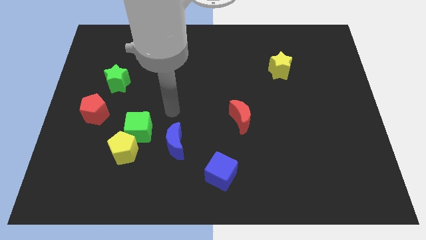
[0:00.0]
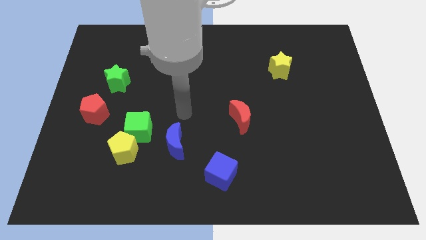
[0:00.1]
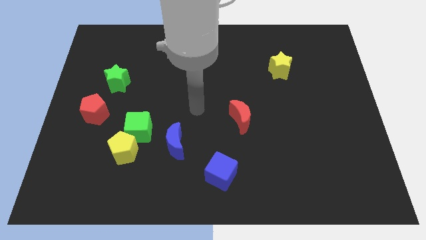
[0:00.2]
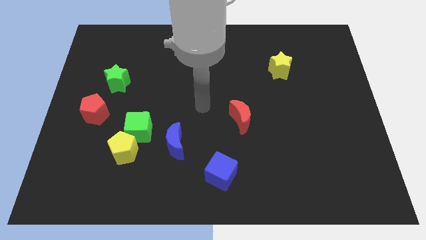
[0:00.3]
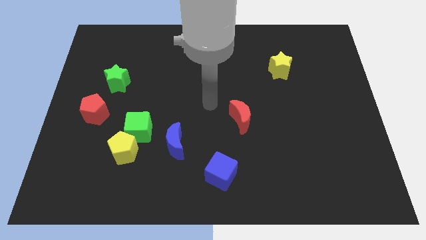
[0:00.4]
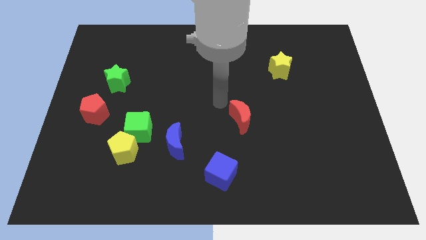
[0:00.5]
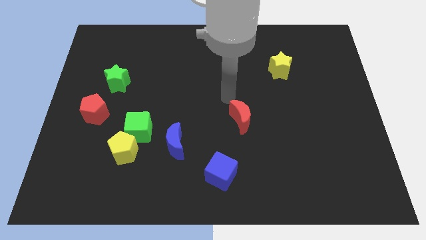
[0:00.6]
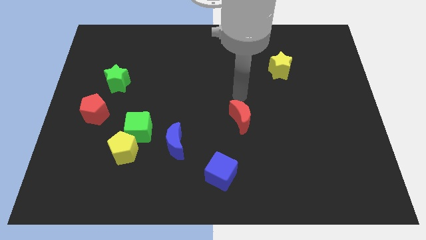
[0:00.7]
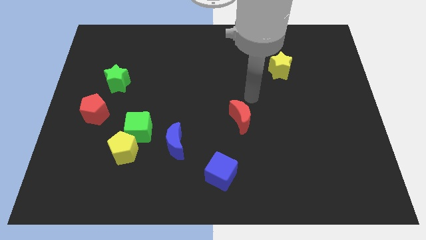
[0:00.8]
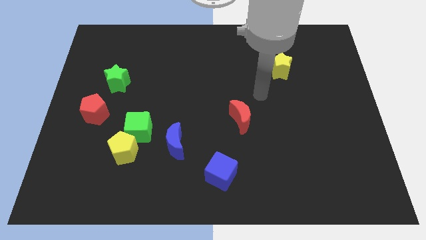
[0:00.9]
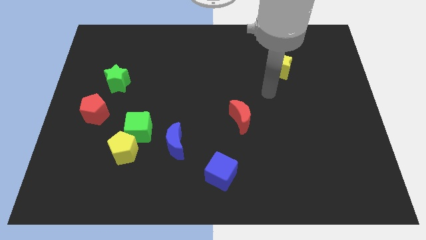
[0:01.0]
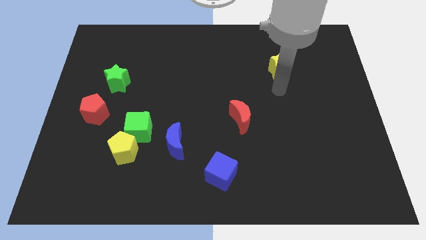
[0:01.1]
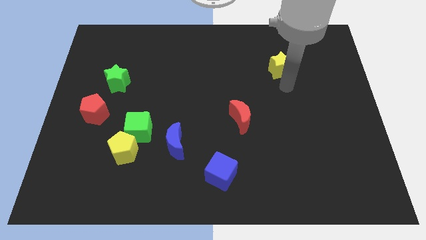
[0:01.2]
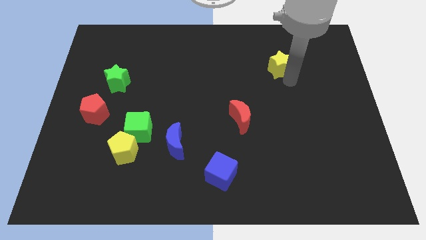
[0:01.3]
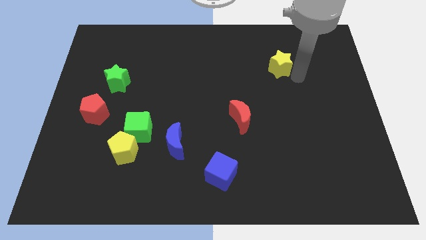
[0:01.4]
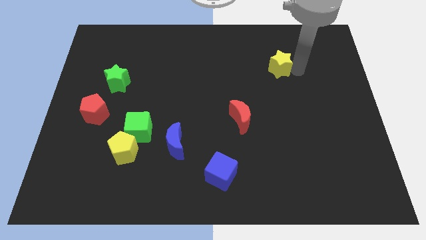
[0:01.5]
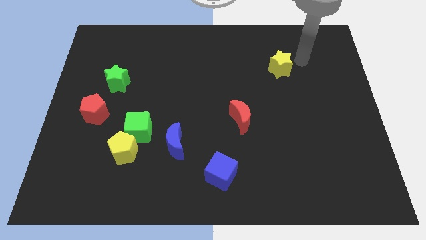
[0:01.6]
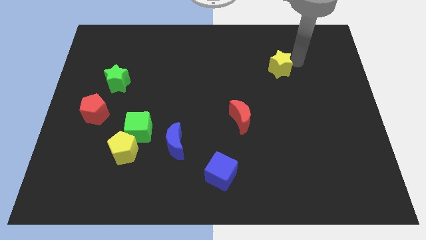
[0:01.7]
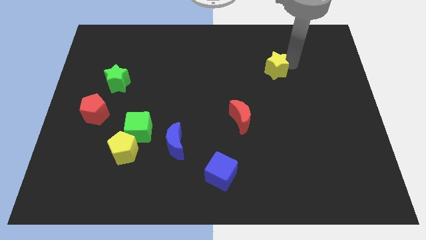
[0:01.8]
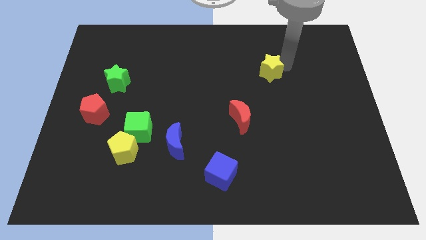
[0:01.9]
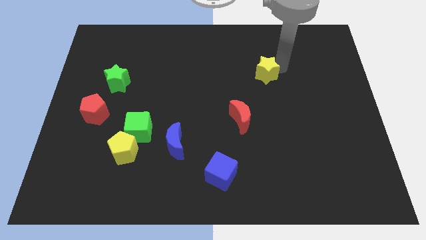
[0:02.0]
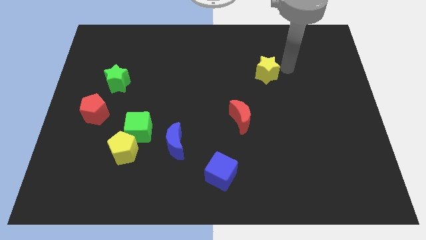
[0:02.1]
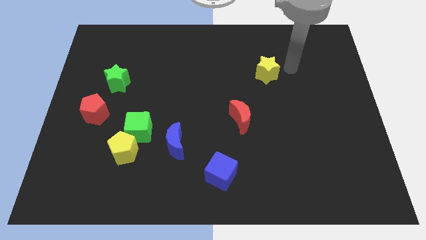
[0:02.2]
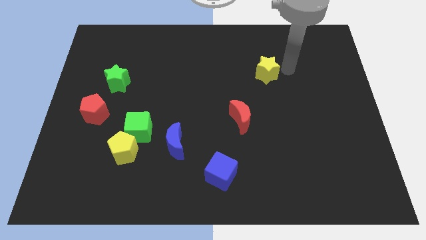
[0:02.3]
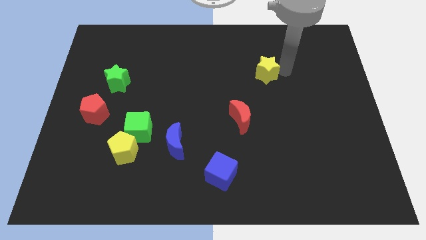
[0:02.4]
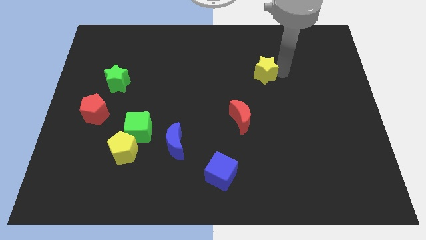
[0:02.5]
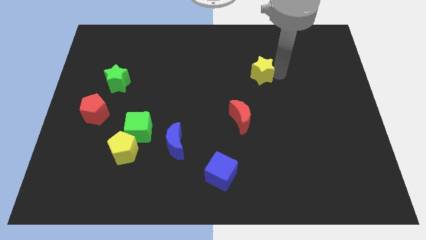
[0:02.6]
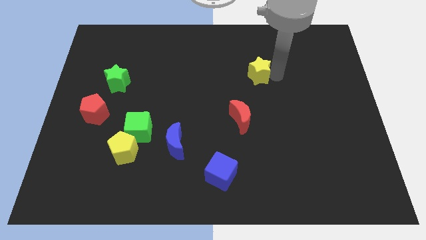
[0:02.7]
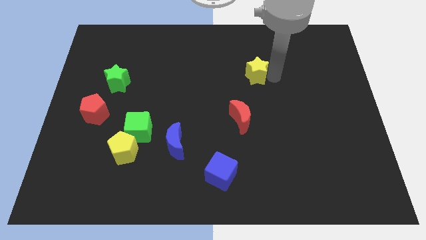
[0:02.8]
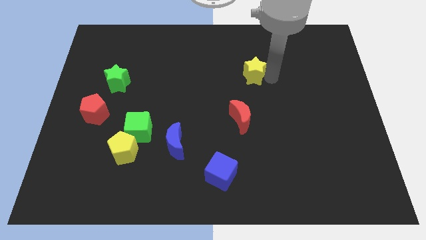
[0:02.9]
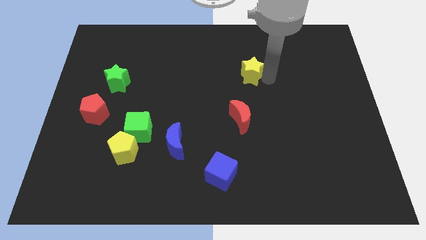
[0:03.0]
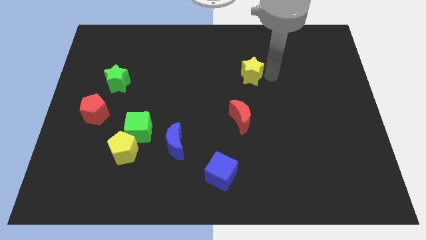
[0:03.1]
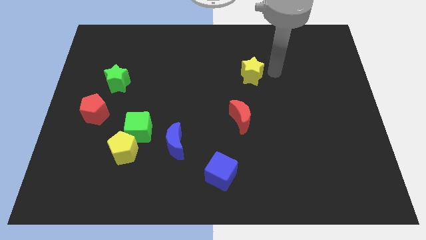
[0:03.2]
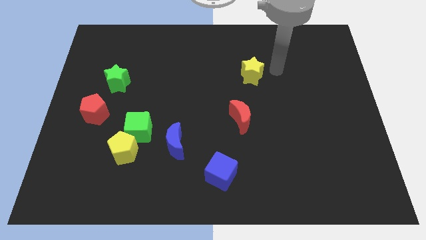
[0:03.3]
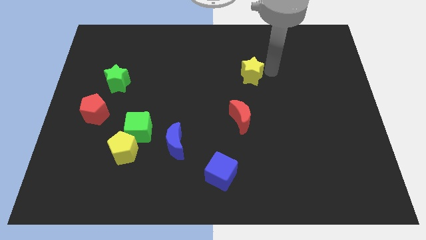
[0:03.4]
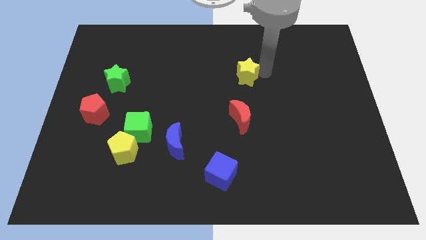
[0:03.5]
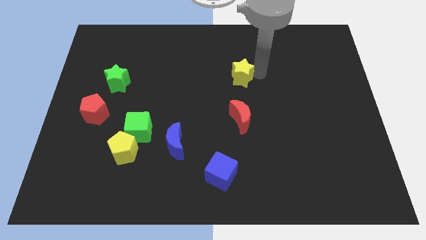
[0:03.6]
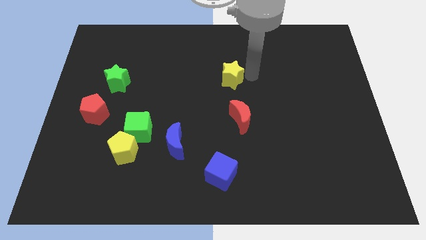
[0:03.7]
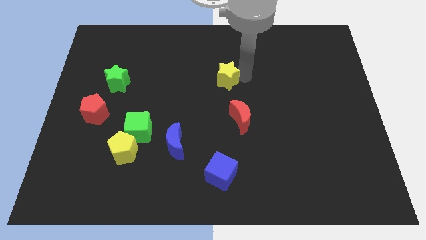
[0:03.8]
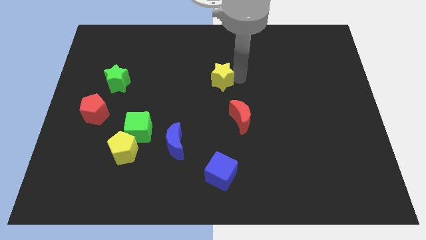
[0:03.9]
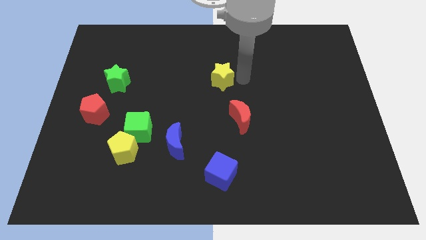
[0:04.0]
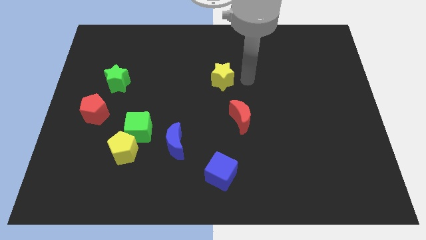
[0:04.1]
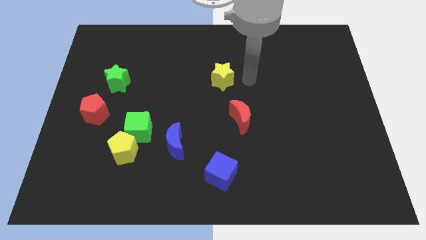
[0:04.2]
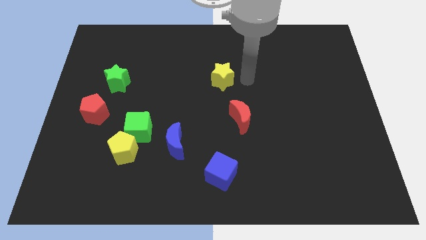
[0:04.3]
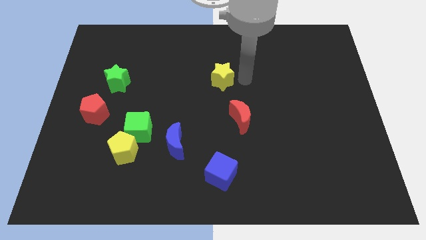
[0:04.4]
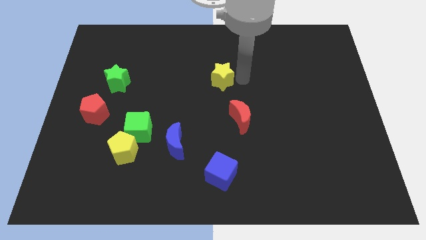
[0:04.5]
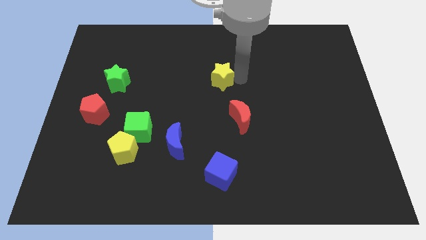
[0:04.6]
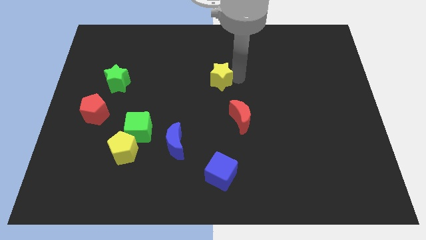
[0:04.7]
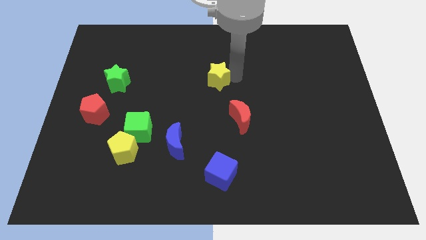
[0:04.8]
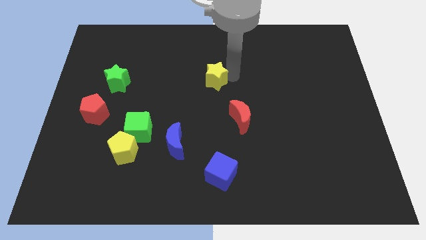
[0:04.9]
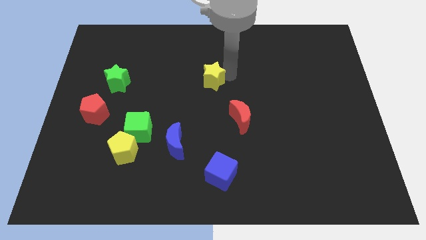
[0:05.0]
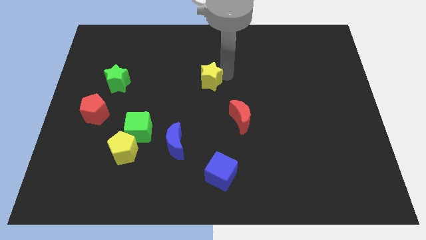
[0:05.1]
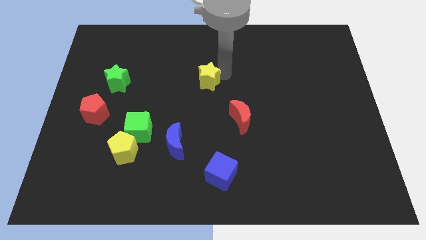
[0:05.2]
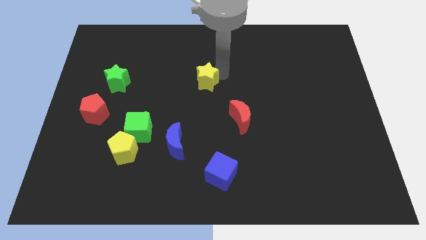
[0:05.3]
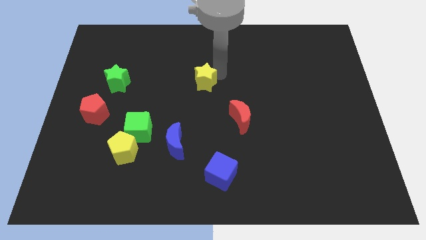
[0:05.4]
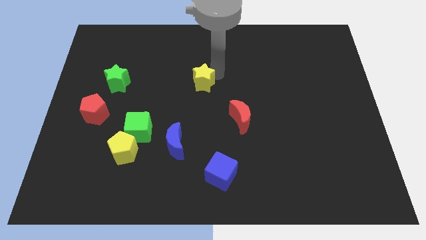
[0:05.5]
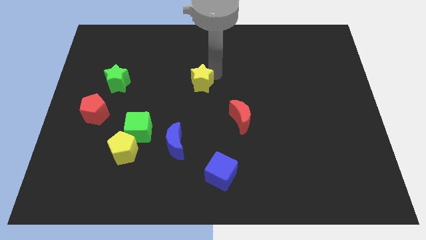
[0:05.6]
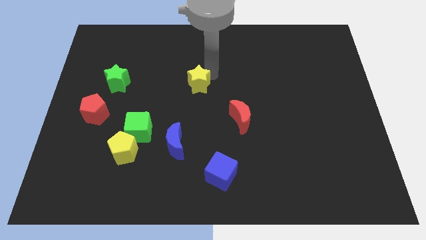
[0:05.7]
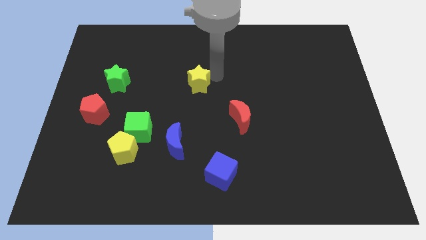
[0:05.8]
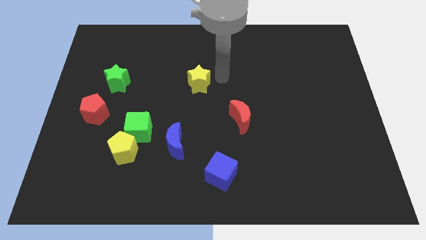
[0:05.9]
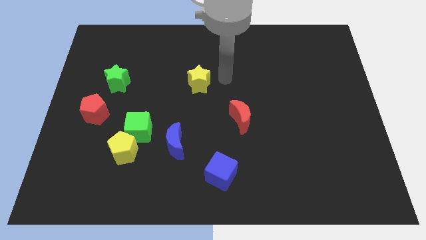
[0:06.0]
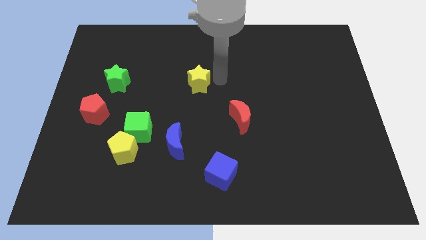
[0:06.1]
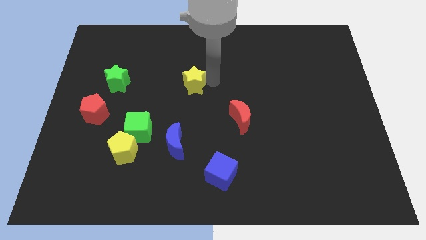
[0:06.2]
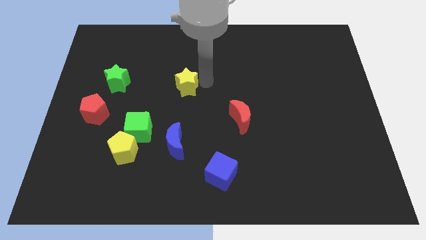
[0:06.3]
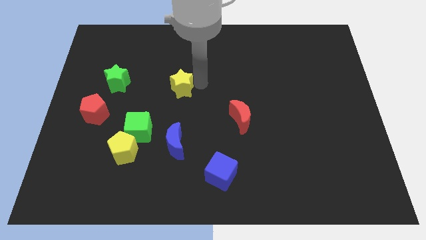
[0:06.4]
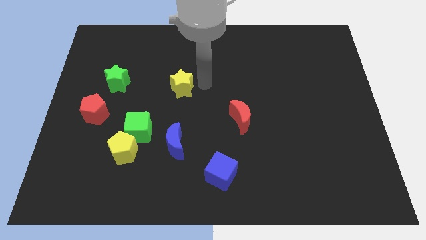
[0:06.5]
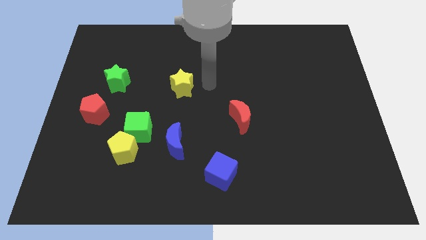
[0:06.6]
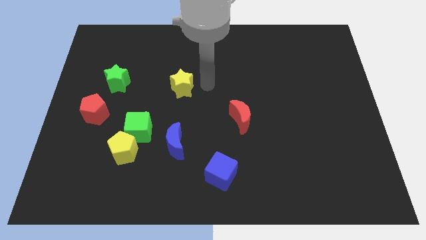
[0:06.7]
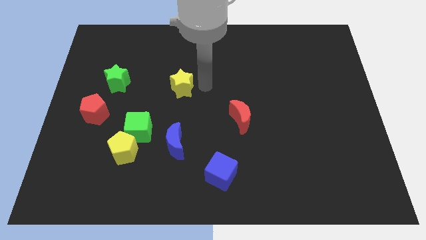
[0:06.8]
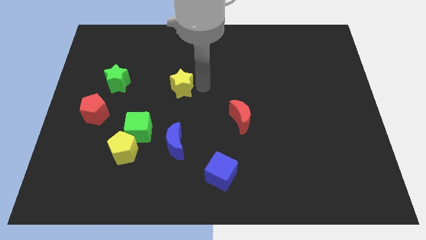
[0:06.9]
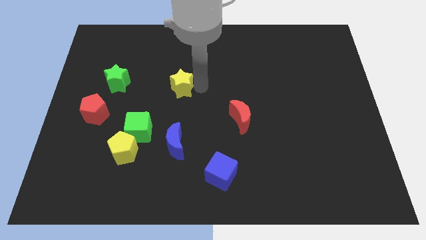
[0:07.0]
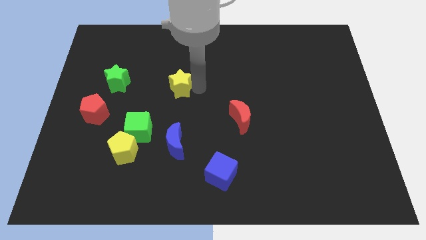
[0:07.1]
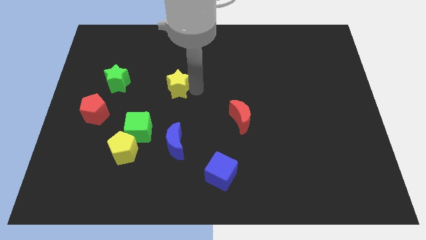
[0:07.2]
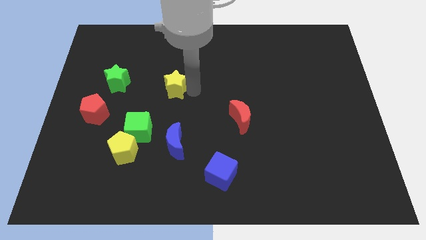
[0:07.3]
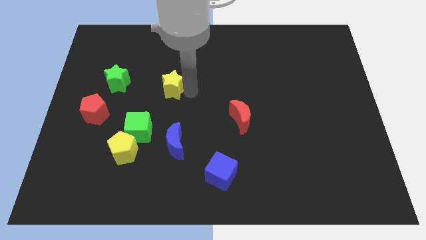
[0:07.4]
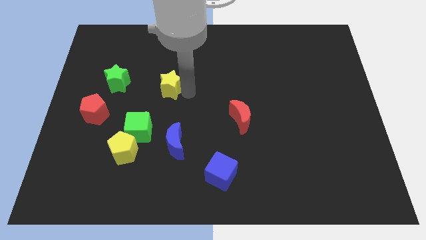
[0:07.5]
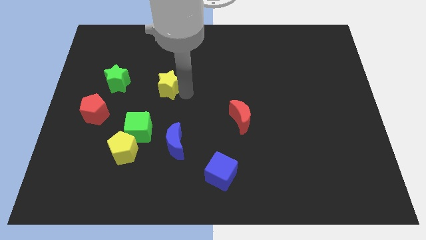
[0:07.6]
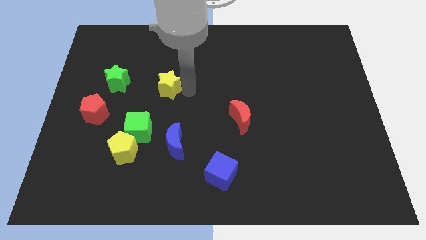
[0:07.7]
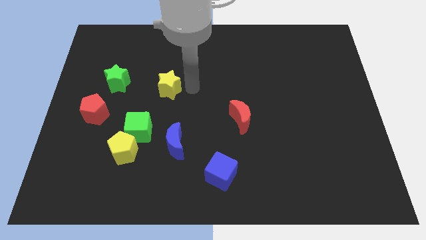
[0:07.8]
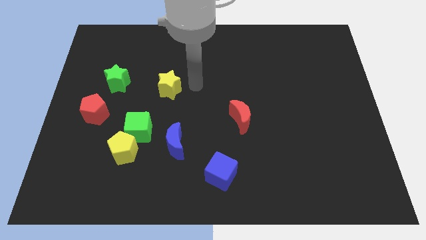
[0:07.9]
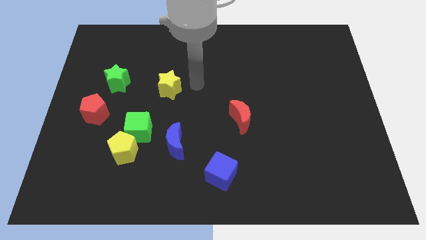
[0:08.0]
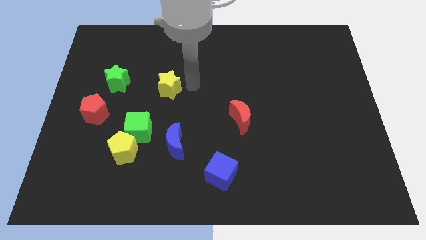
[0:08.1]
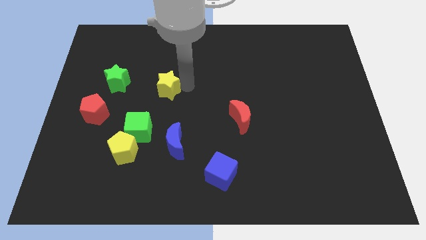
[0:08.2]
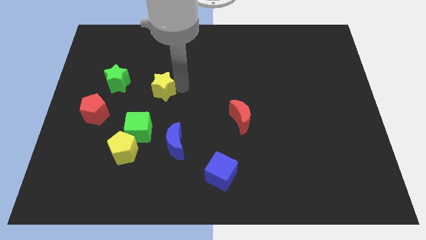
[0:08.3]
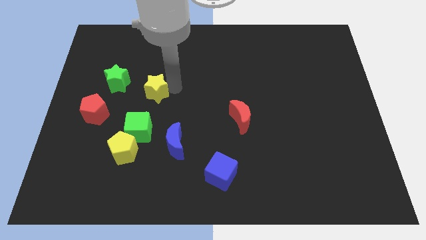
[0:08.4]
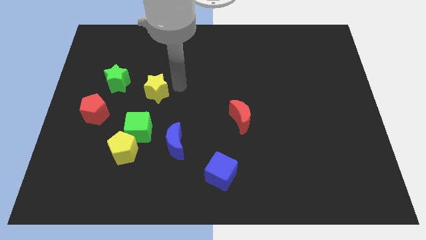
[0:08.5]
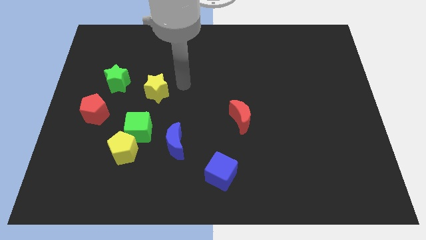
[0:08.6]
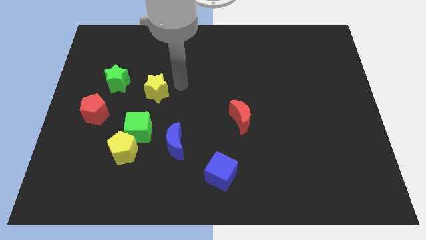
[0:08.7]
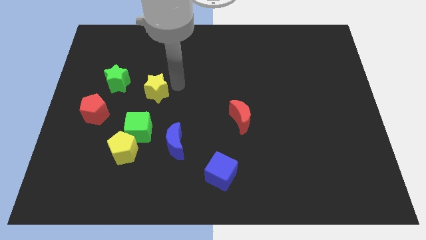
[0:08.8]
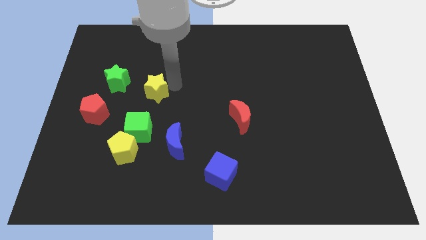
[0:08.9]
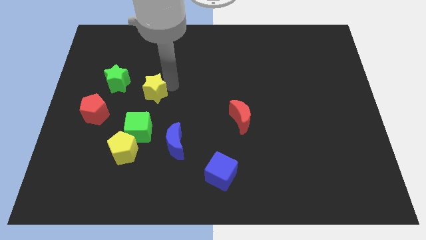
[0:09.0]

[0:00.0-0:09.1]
move the yellow star to the bottom right side of the green star
